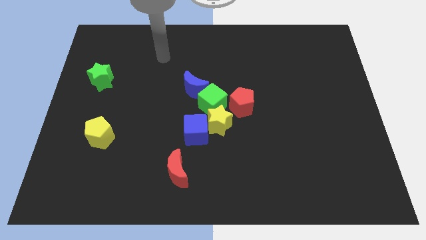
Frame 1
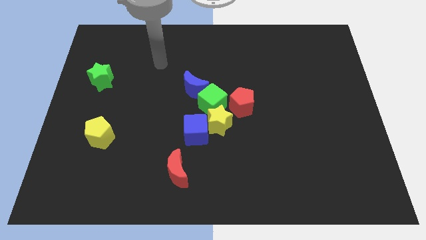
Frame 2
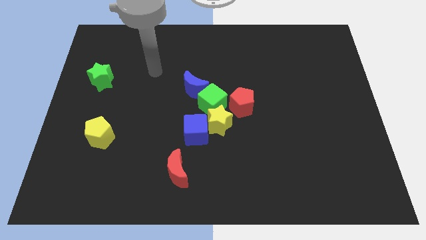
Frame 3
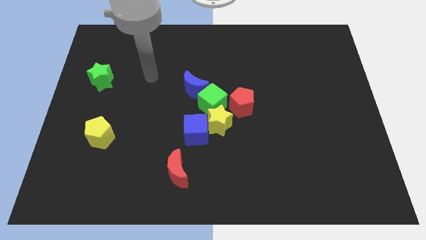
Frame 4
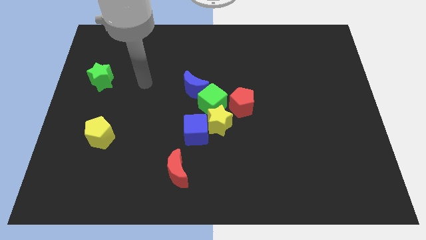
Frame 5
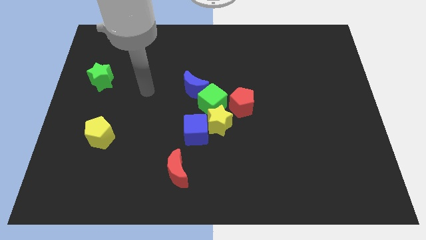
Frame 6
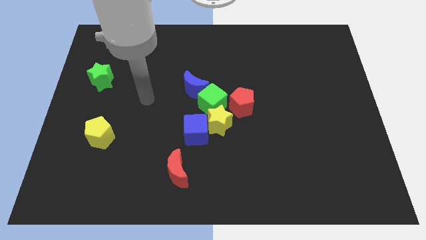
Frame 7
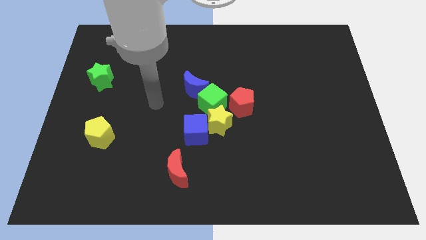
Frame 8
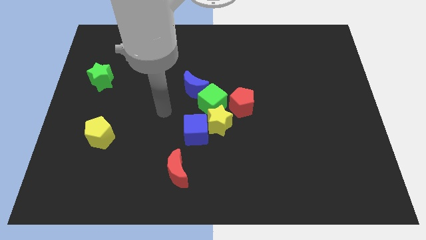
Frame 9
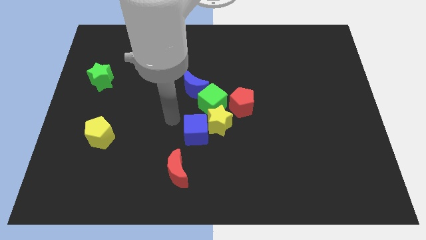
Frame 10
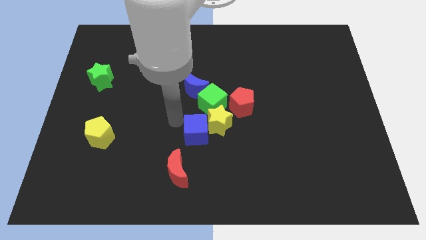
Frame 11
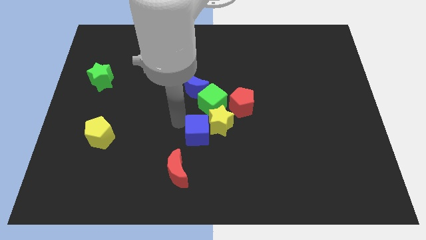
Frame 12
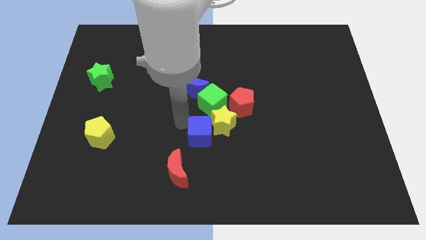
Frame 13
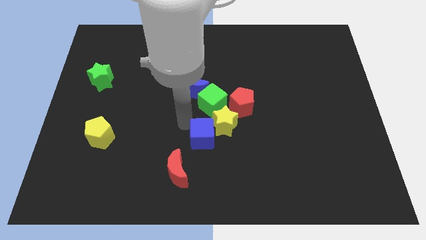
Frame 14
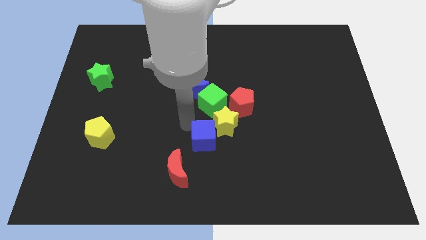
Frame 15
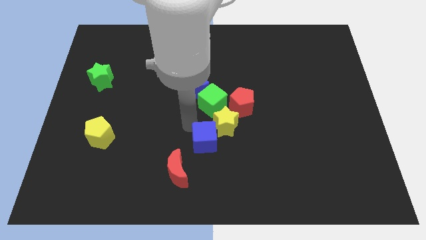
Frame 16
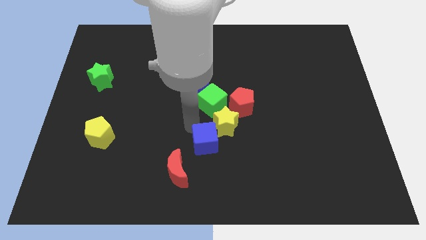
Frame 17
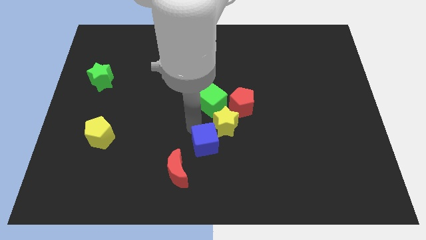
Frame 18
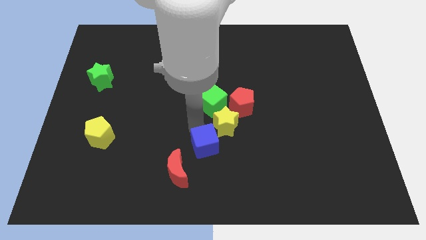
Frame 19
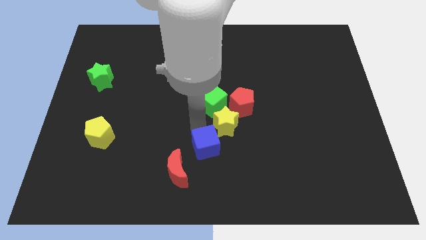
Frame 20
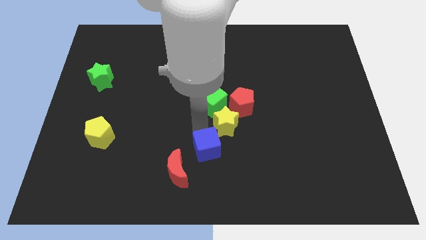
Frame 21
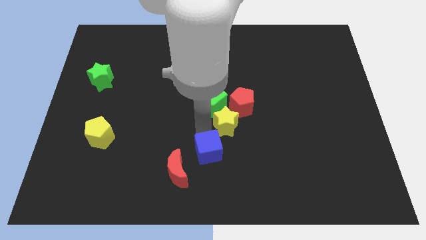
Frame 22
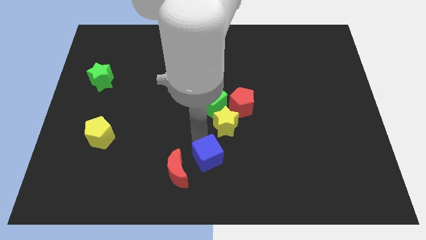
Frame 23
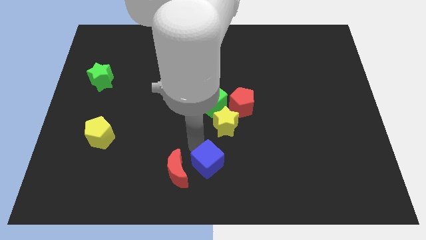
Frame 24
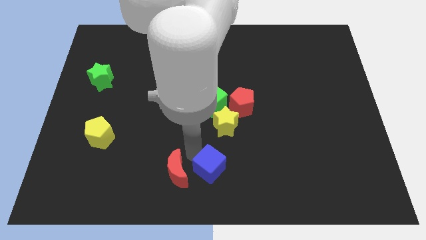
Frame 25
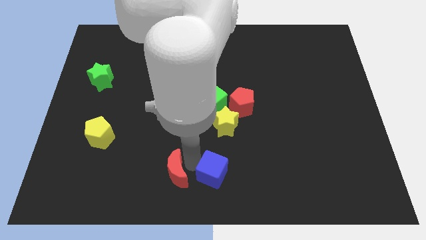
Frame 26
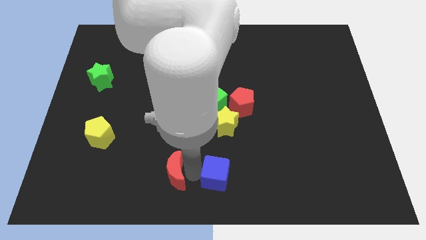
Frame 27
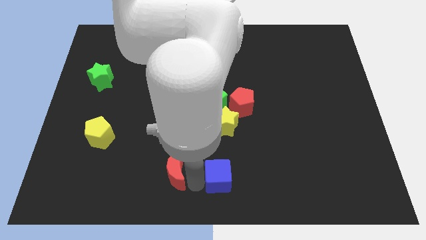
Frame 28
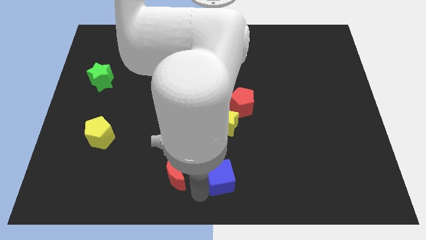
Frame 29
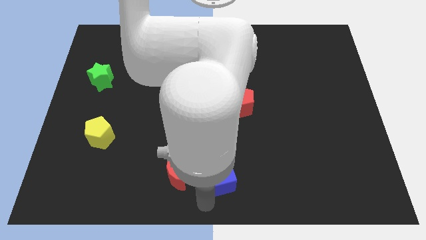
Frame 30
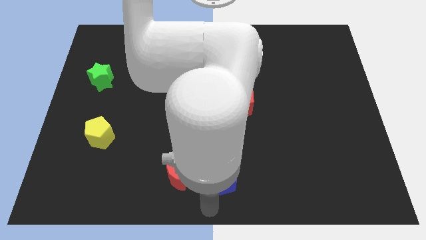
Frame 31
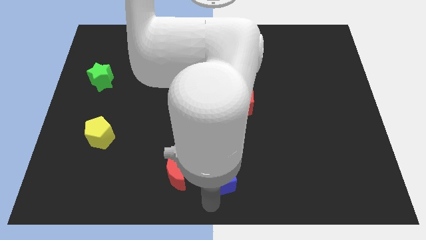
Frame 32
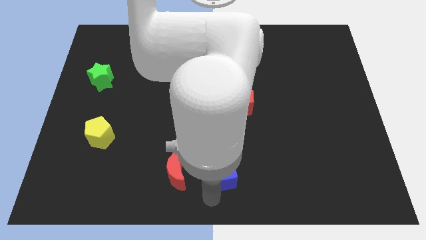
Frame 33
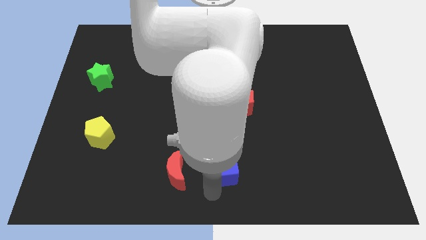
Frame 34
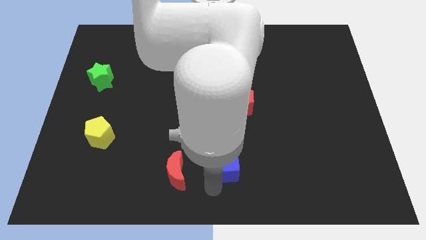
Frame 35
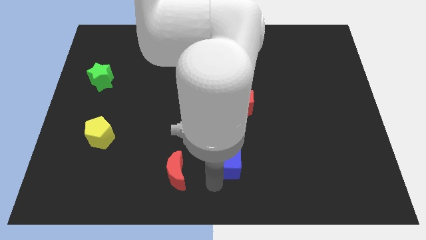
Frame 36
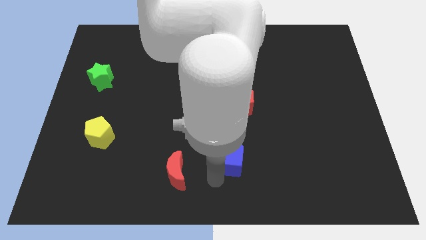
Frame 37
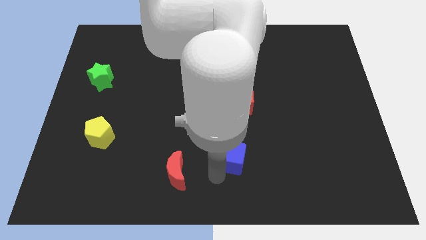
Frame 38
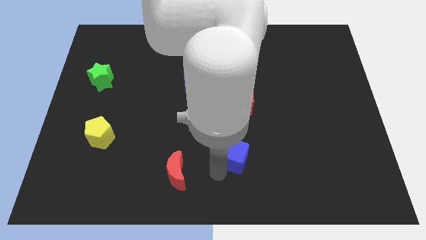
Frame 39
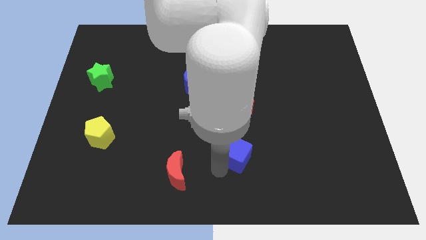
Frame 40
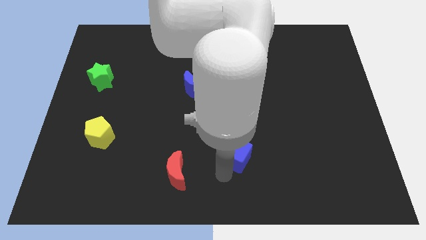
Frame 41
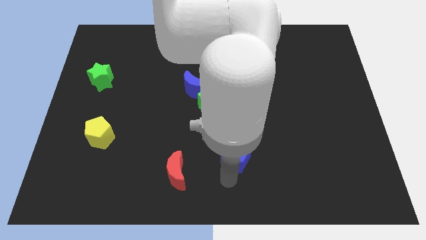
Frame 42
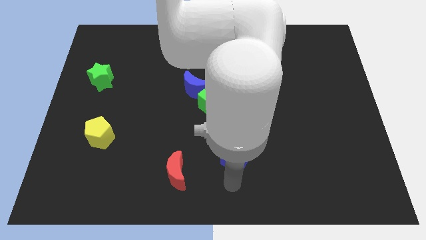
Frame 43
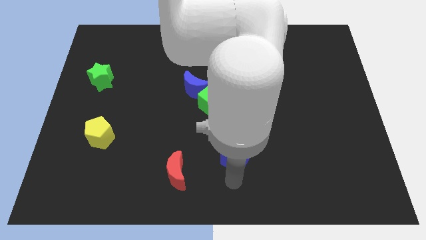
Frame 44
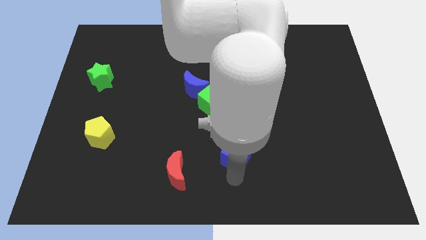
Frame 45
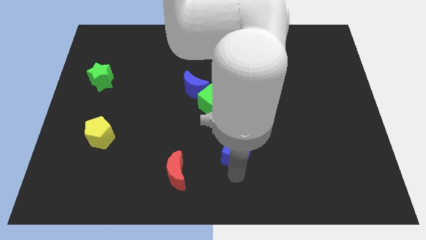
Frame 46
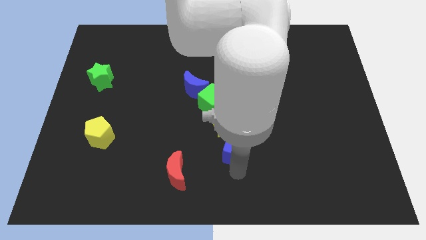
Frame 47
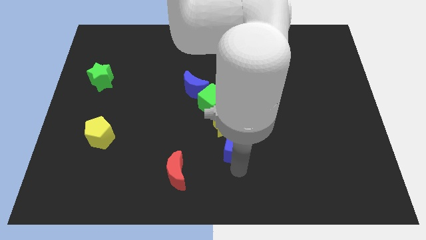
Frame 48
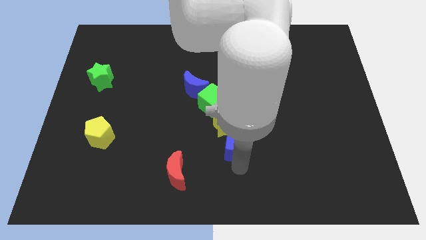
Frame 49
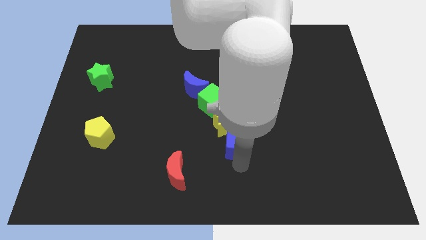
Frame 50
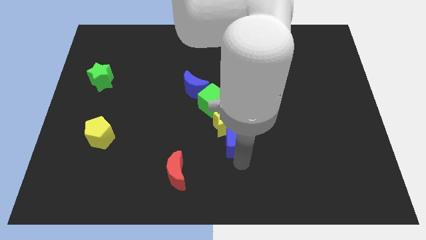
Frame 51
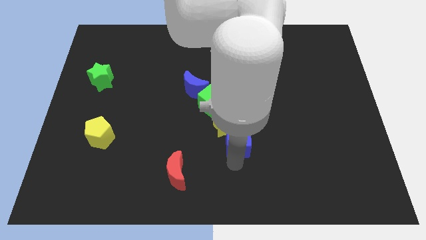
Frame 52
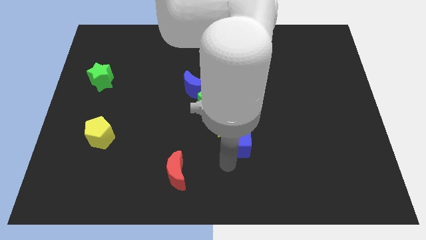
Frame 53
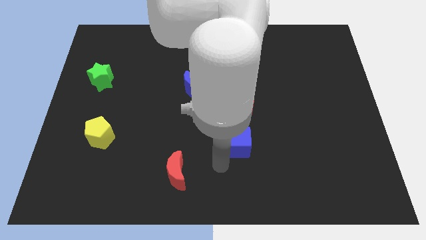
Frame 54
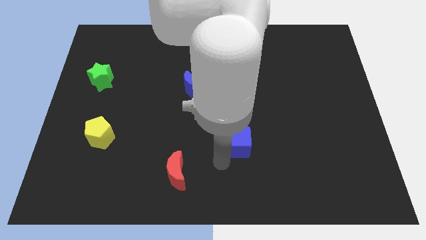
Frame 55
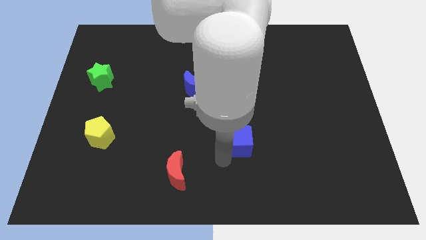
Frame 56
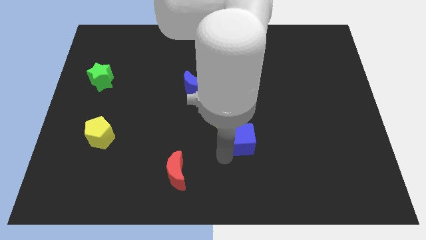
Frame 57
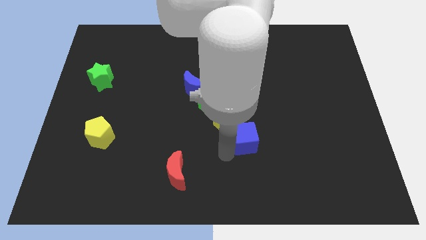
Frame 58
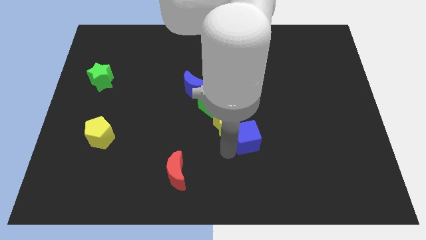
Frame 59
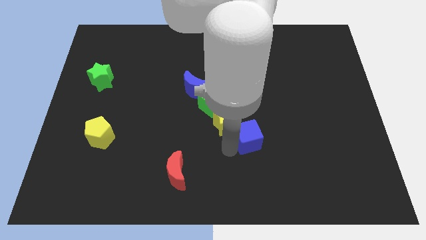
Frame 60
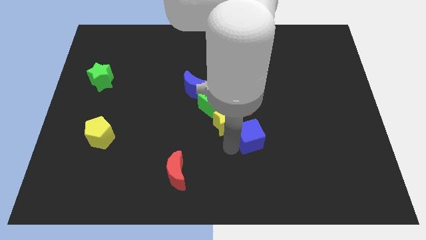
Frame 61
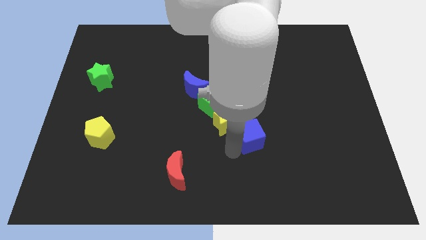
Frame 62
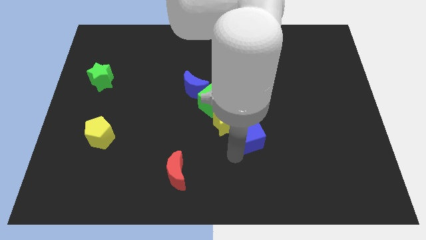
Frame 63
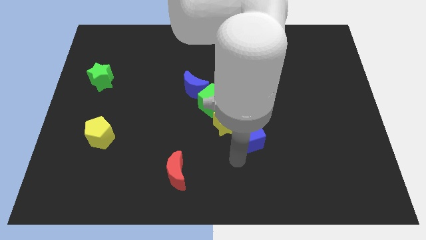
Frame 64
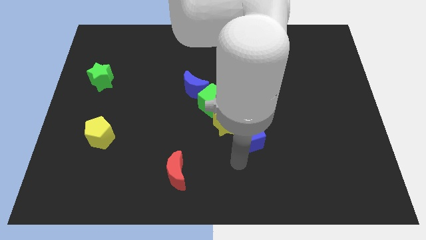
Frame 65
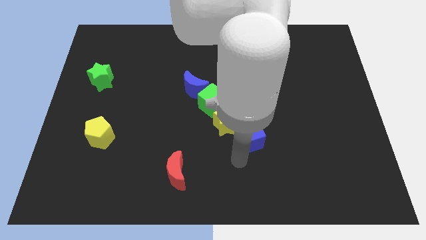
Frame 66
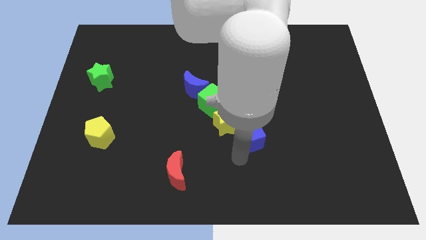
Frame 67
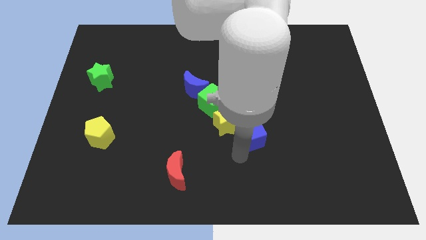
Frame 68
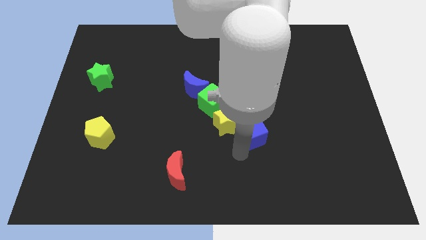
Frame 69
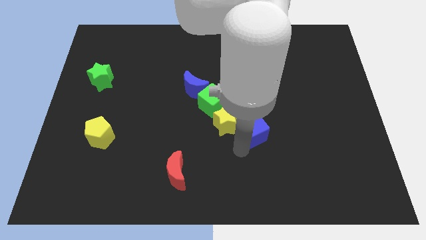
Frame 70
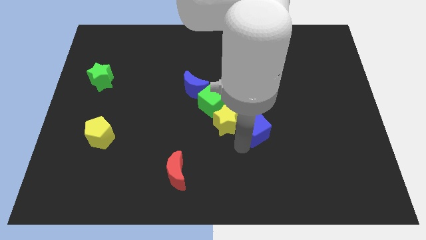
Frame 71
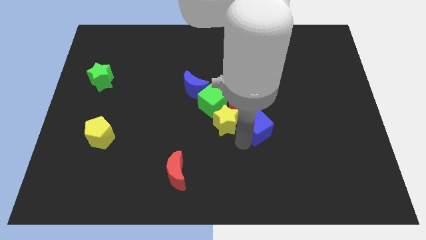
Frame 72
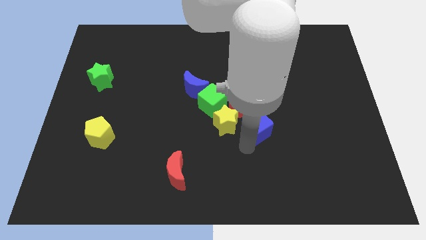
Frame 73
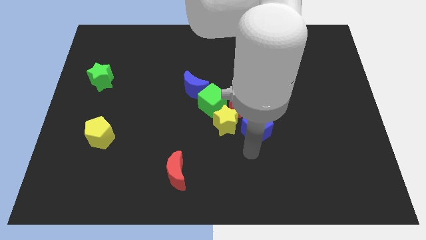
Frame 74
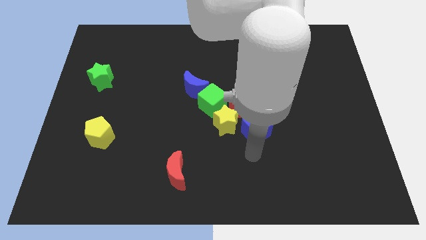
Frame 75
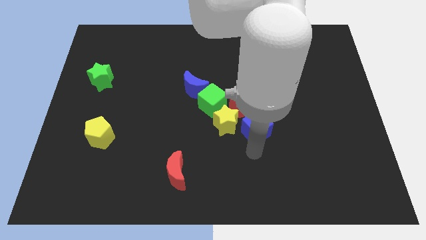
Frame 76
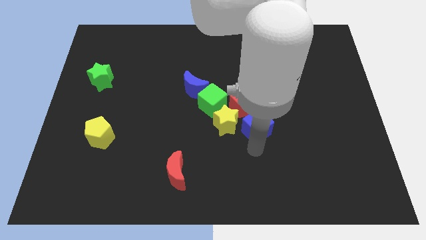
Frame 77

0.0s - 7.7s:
slightly slide the blue cube up and to the right diagonally

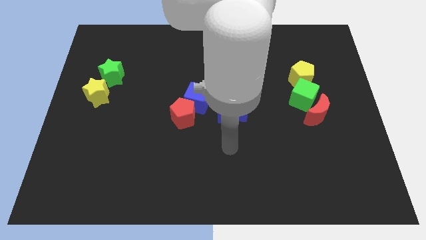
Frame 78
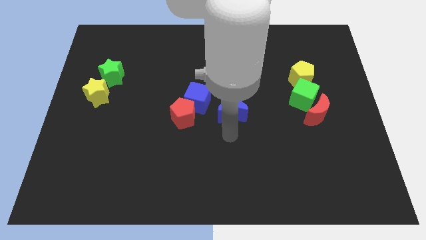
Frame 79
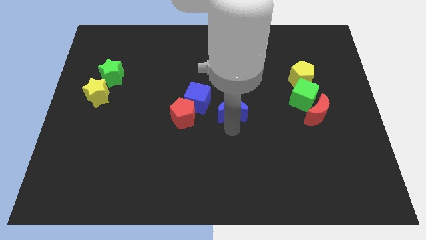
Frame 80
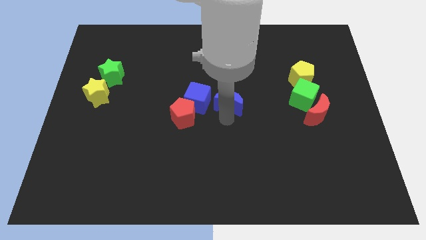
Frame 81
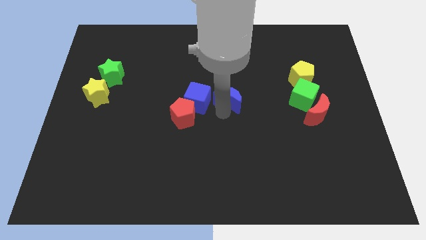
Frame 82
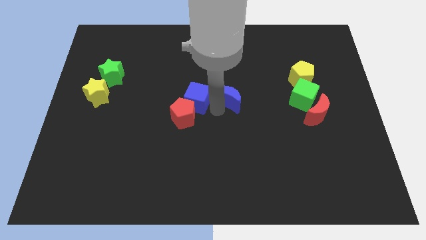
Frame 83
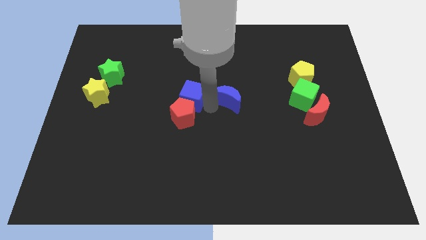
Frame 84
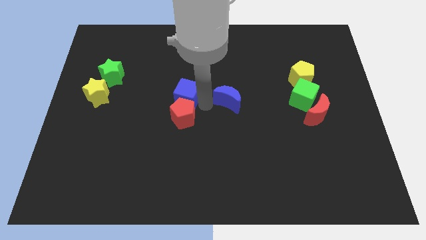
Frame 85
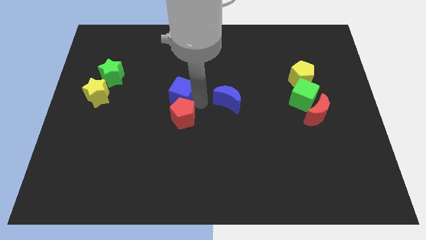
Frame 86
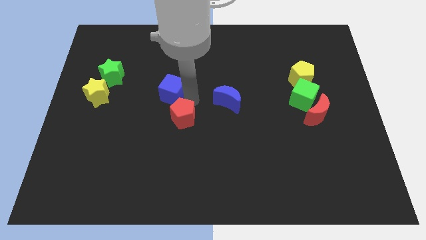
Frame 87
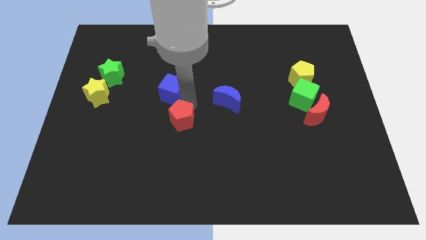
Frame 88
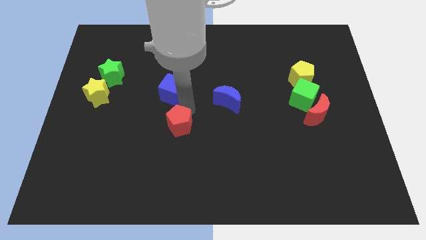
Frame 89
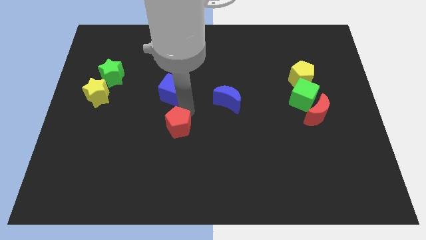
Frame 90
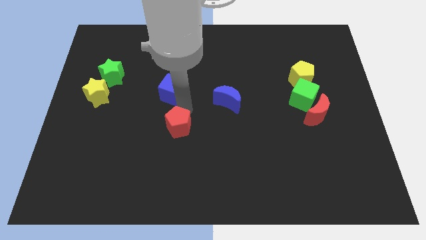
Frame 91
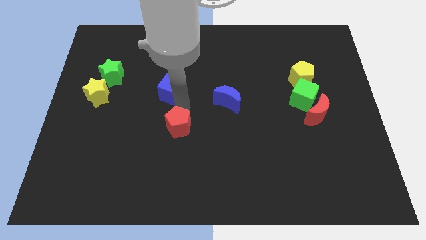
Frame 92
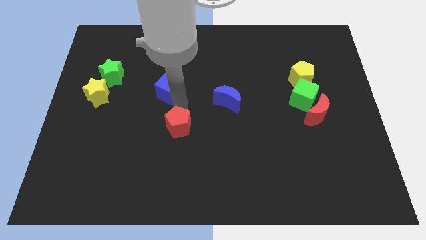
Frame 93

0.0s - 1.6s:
slightly slide the blue cube diagonally upwards and left
